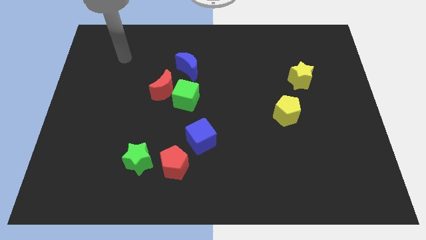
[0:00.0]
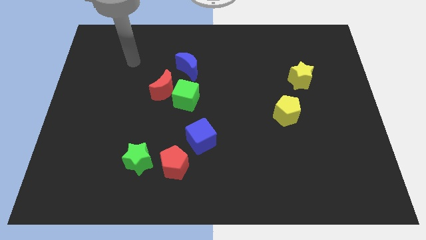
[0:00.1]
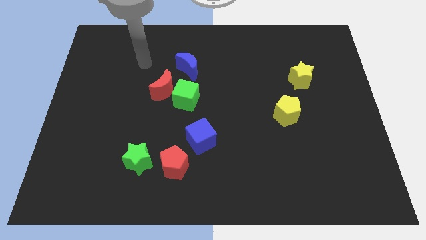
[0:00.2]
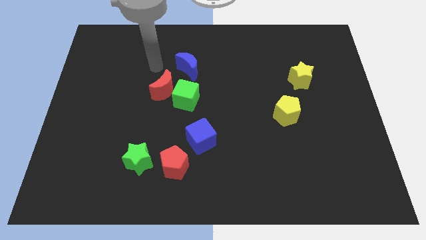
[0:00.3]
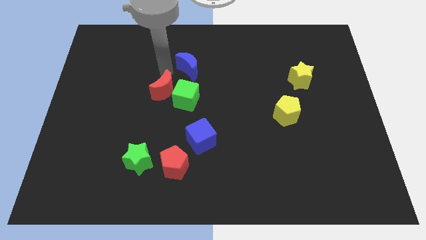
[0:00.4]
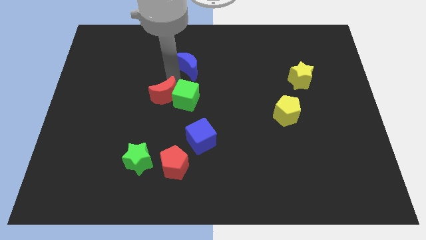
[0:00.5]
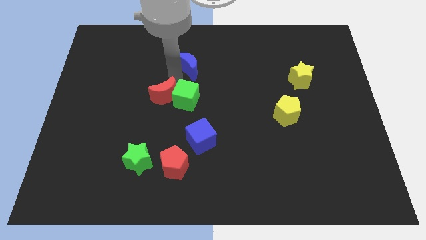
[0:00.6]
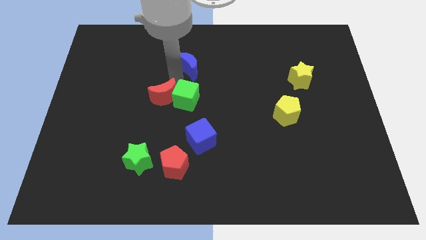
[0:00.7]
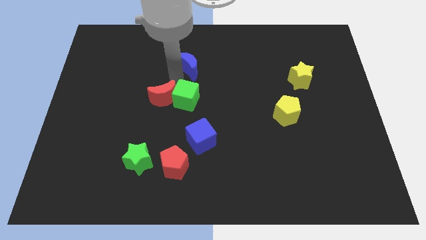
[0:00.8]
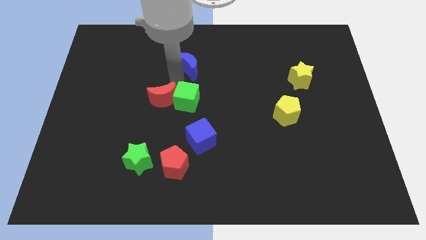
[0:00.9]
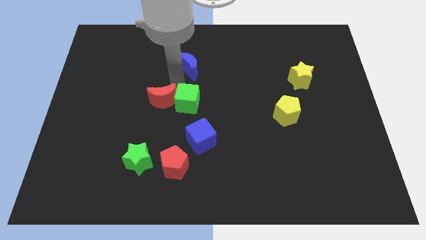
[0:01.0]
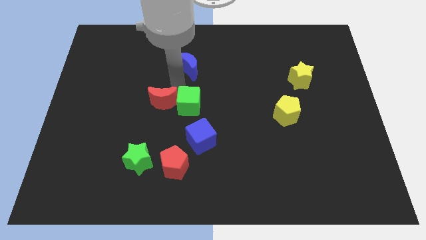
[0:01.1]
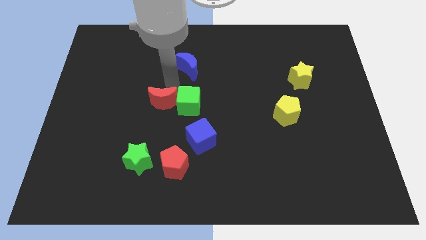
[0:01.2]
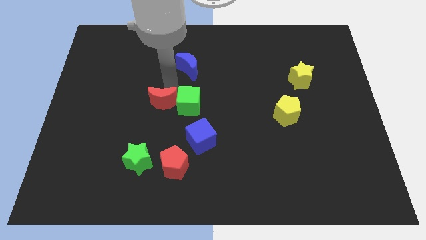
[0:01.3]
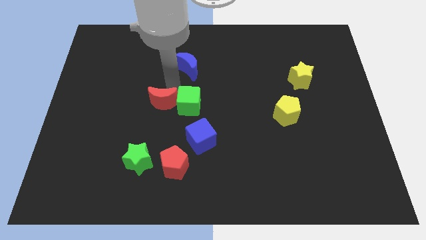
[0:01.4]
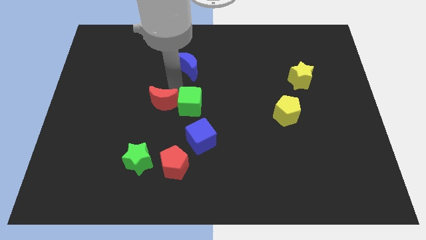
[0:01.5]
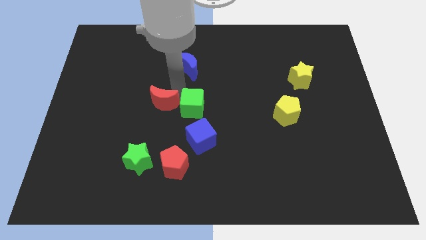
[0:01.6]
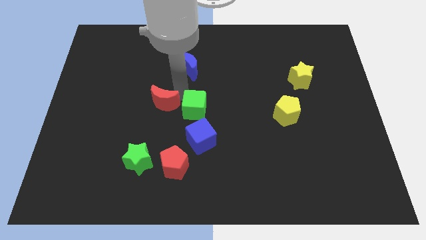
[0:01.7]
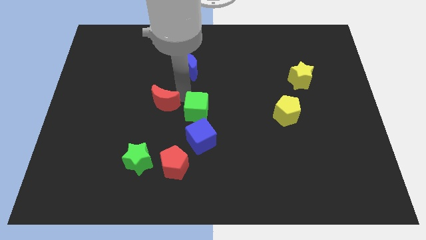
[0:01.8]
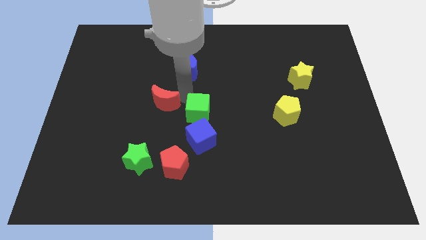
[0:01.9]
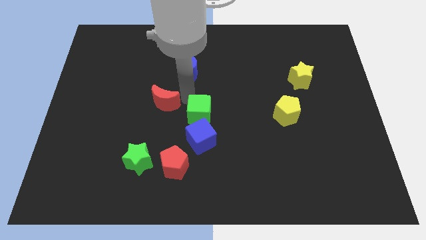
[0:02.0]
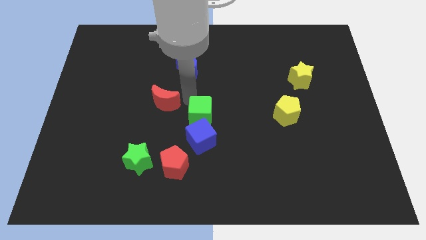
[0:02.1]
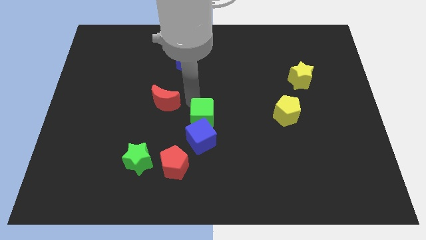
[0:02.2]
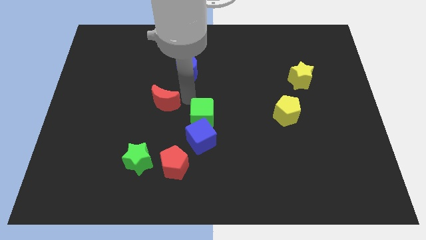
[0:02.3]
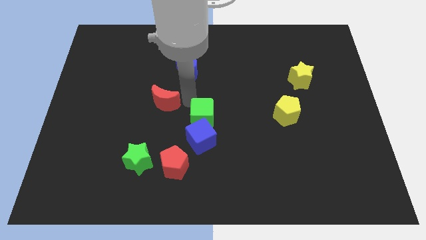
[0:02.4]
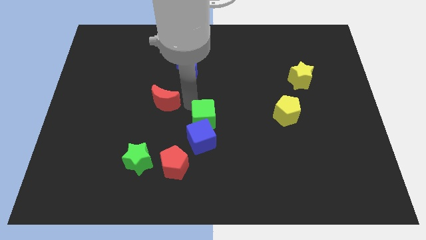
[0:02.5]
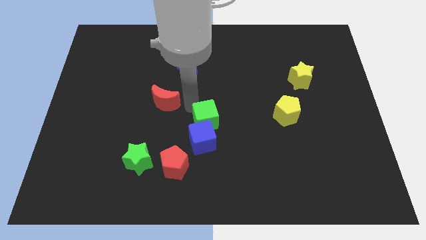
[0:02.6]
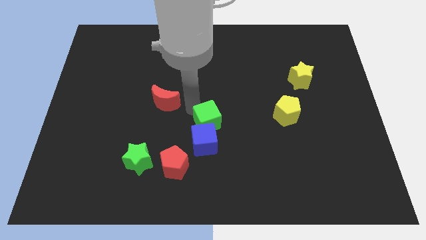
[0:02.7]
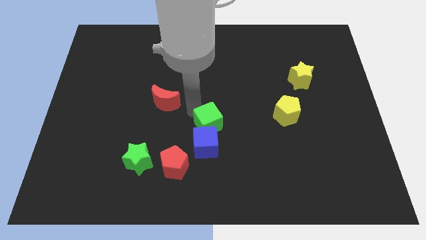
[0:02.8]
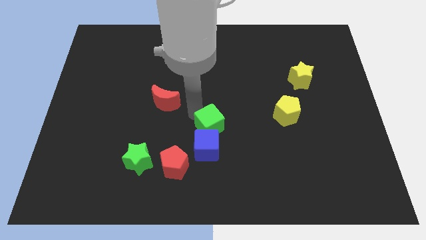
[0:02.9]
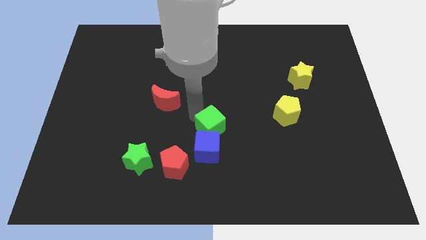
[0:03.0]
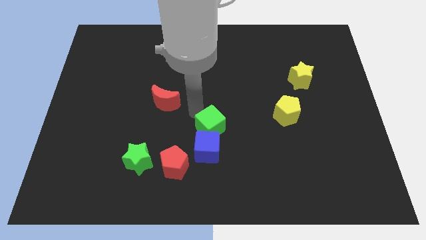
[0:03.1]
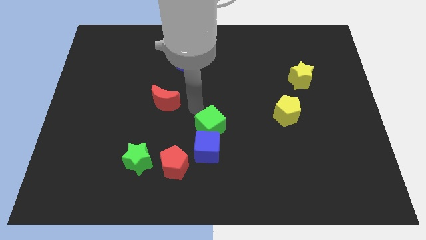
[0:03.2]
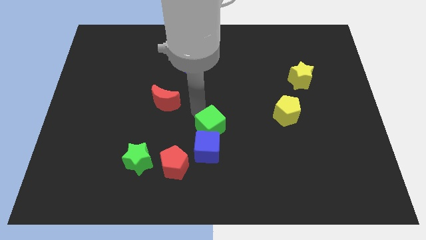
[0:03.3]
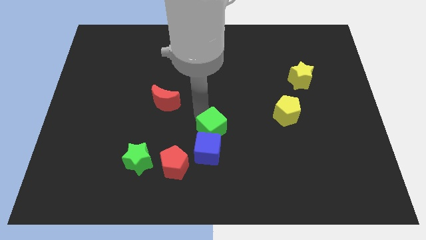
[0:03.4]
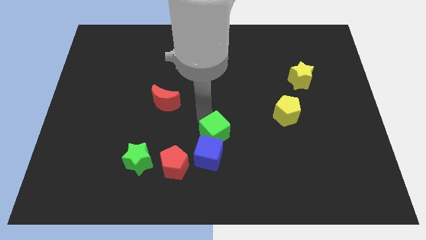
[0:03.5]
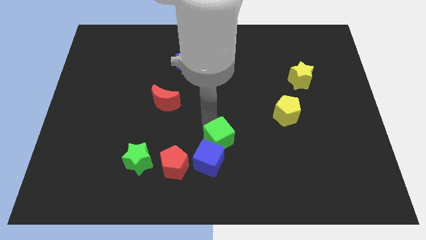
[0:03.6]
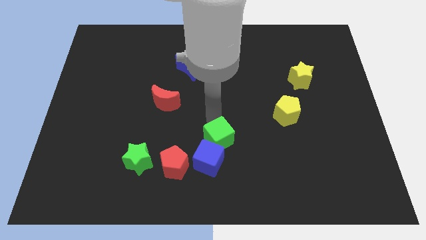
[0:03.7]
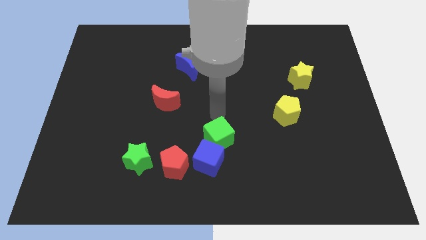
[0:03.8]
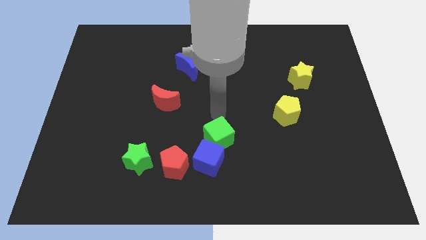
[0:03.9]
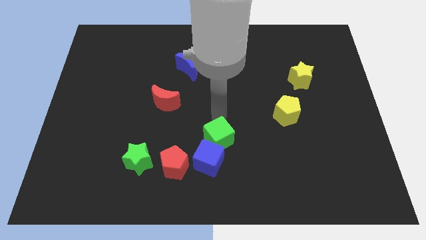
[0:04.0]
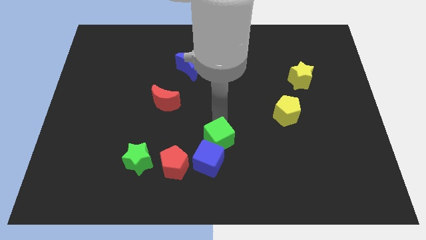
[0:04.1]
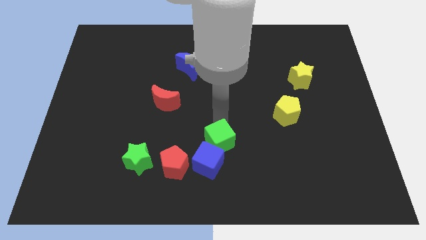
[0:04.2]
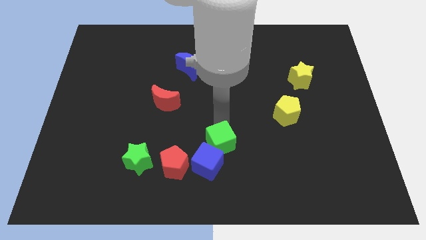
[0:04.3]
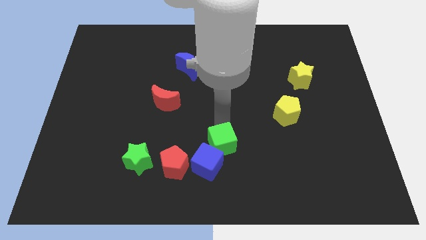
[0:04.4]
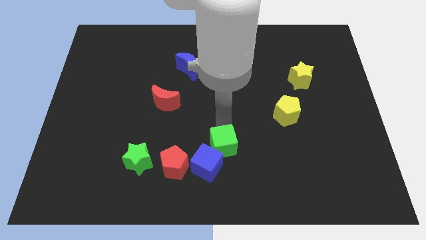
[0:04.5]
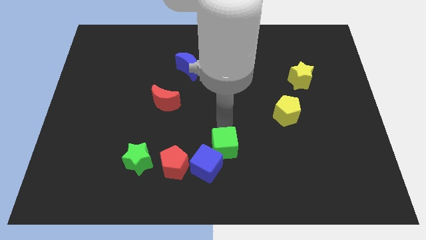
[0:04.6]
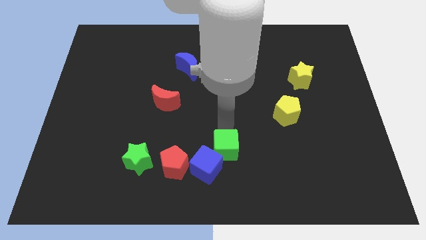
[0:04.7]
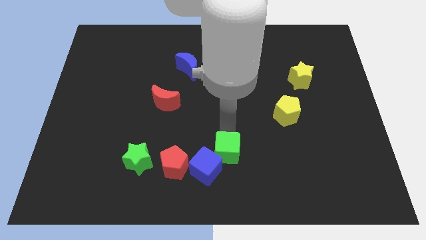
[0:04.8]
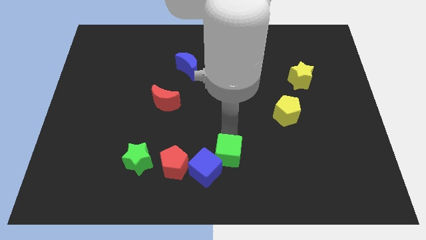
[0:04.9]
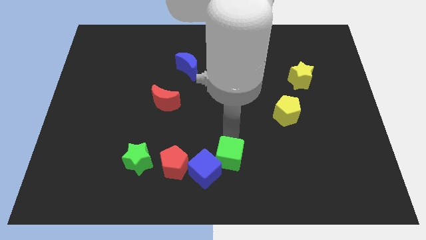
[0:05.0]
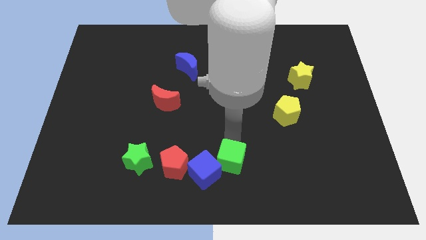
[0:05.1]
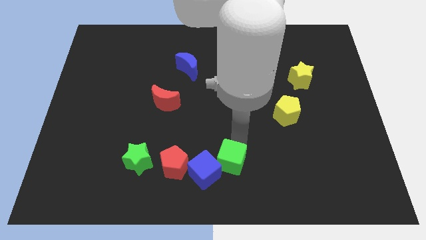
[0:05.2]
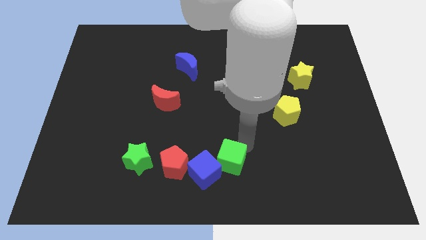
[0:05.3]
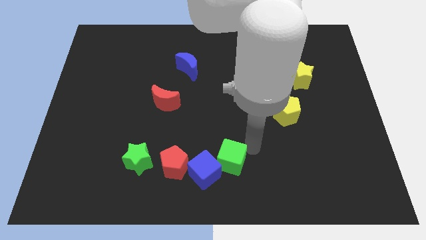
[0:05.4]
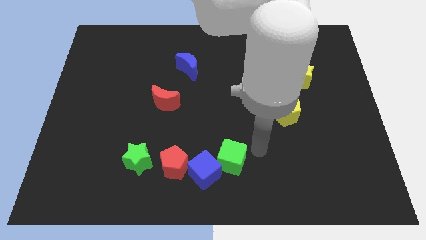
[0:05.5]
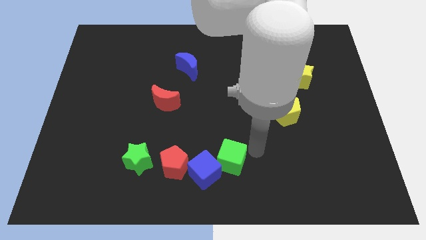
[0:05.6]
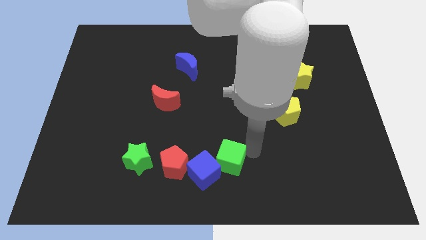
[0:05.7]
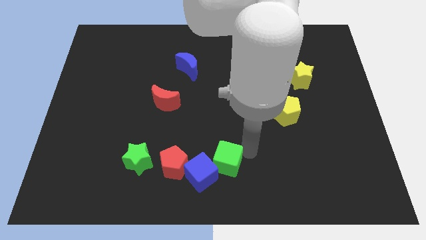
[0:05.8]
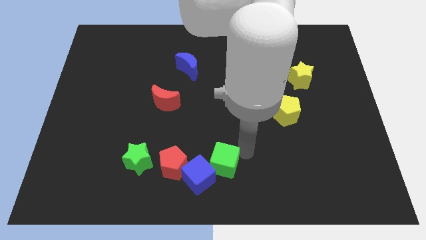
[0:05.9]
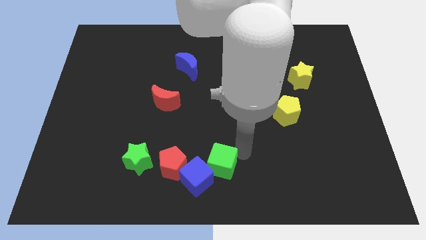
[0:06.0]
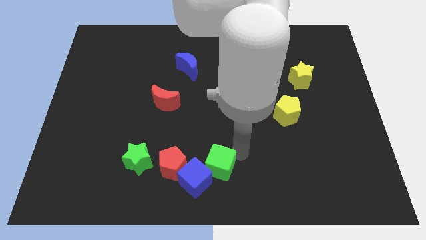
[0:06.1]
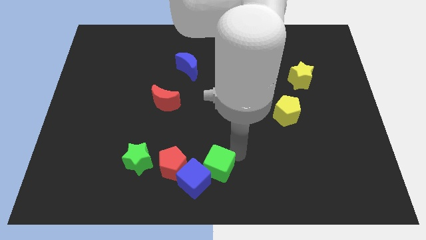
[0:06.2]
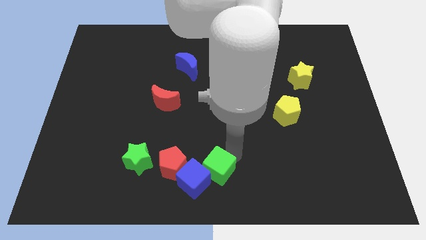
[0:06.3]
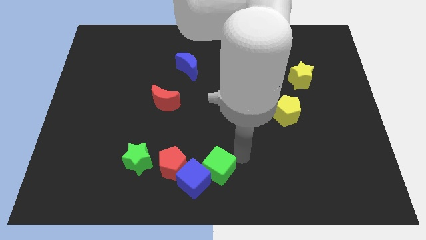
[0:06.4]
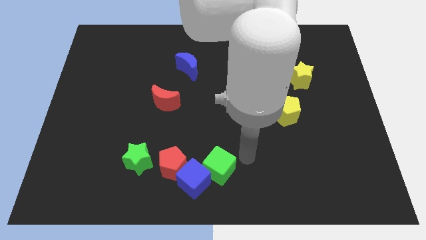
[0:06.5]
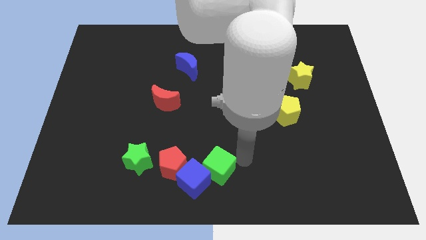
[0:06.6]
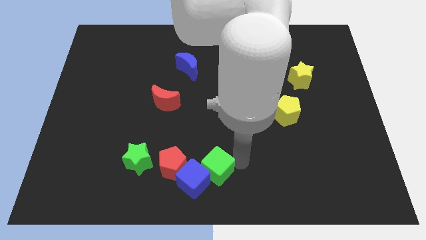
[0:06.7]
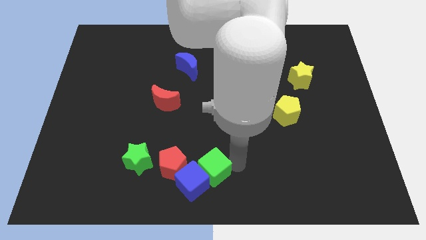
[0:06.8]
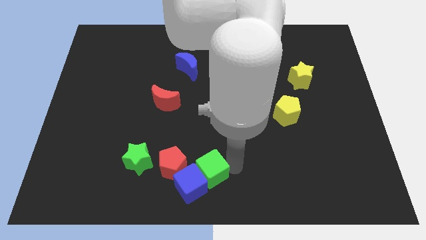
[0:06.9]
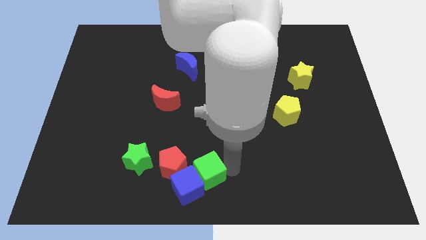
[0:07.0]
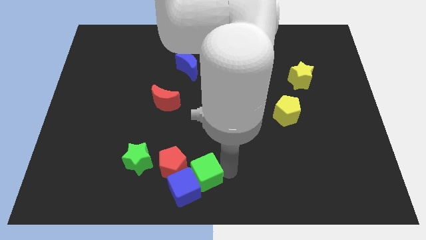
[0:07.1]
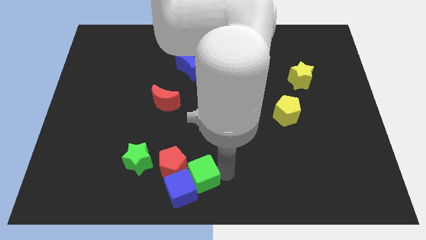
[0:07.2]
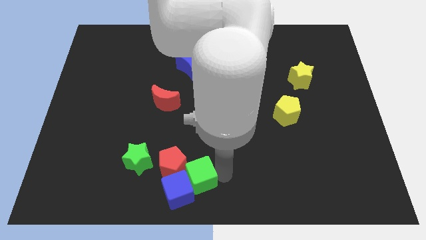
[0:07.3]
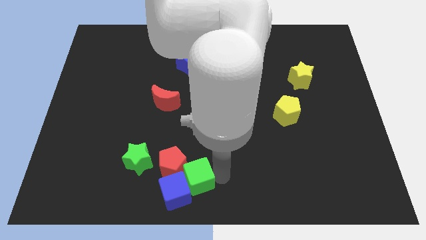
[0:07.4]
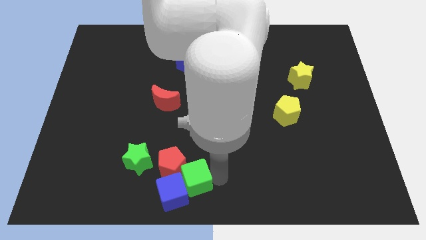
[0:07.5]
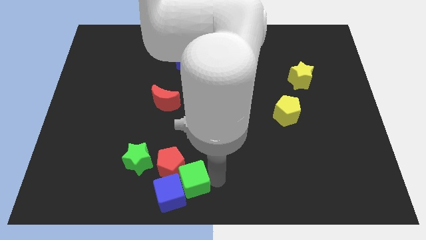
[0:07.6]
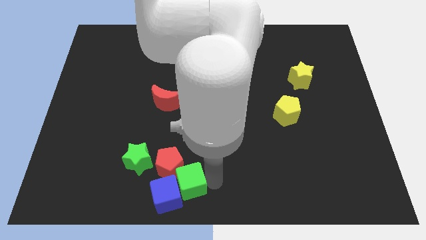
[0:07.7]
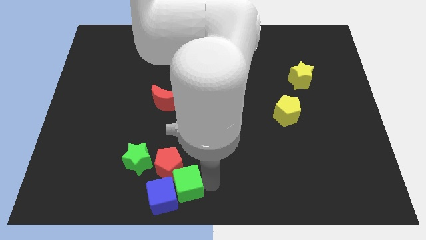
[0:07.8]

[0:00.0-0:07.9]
move the green cube to the bottom right of the green star
